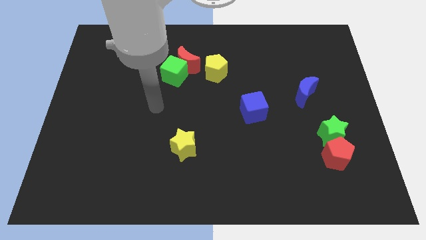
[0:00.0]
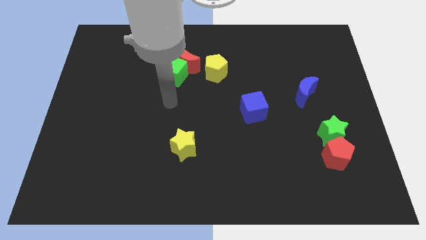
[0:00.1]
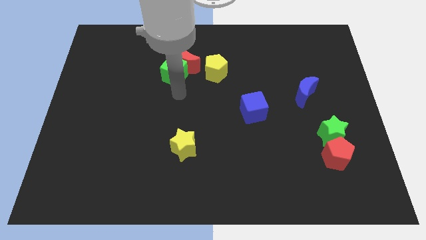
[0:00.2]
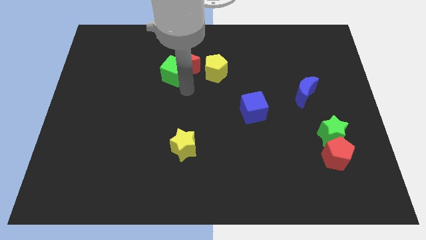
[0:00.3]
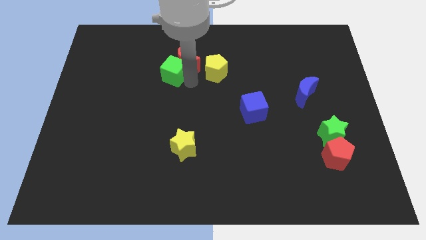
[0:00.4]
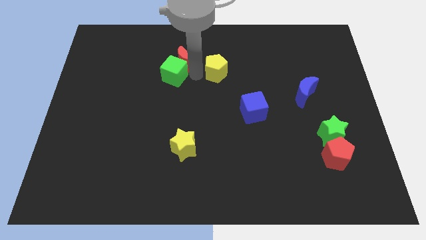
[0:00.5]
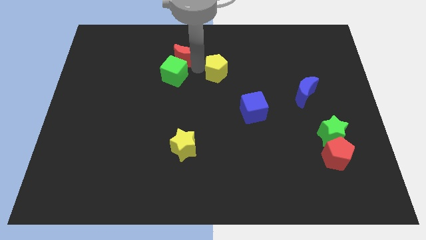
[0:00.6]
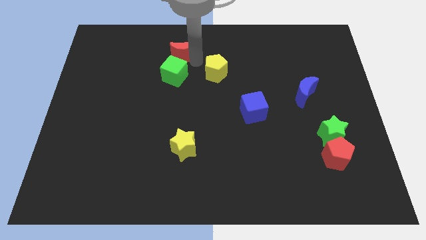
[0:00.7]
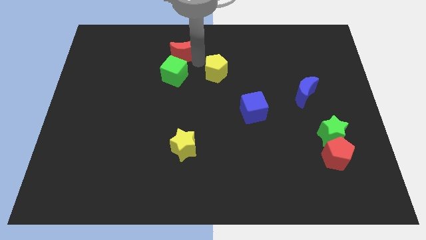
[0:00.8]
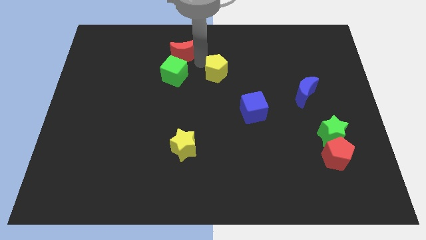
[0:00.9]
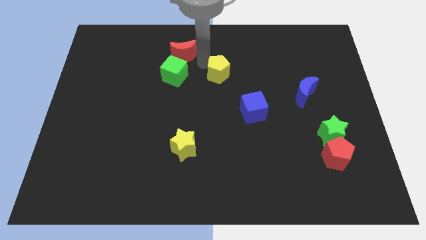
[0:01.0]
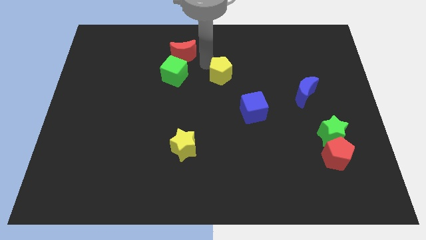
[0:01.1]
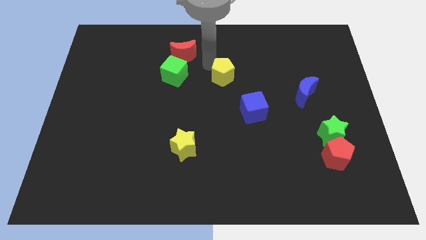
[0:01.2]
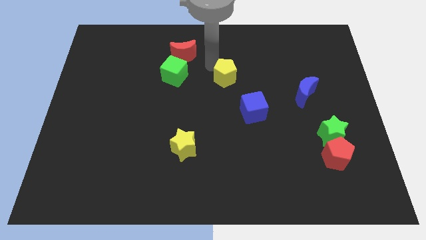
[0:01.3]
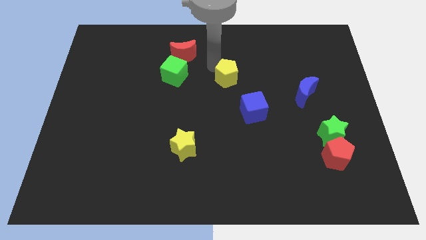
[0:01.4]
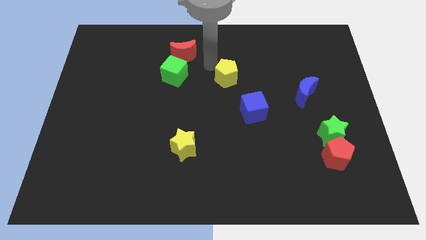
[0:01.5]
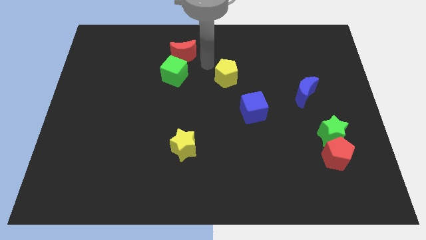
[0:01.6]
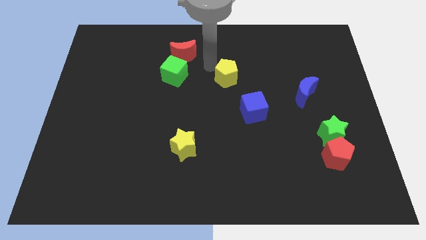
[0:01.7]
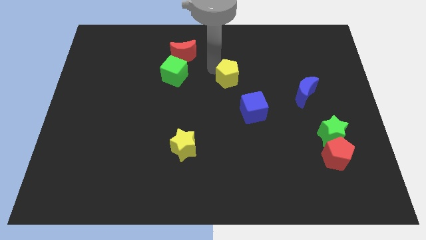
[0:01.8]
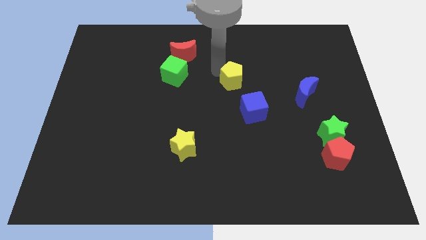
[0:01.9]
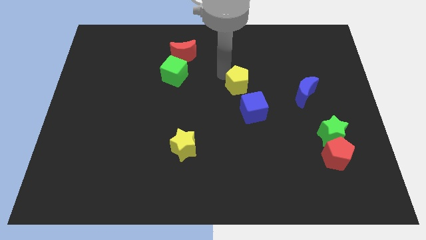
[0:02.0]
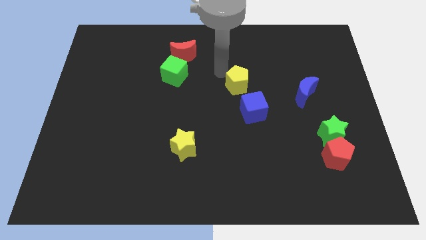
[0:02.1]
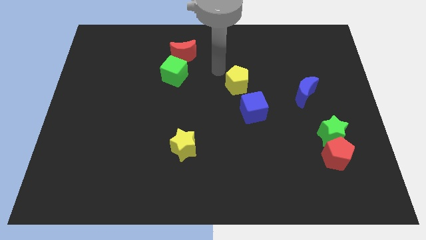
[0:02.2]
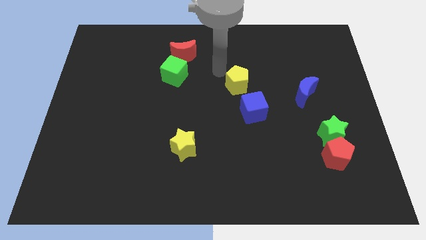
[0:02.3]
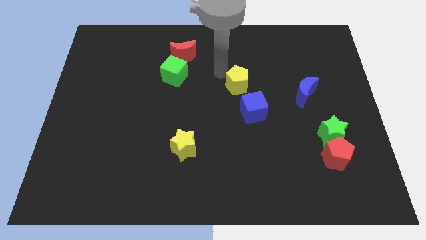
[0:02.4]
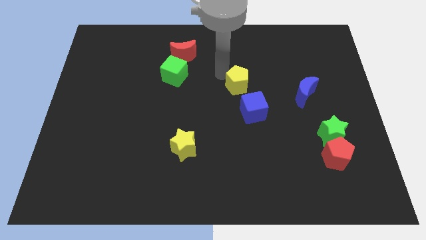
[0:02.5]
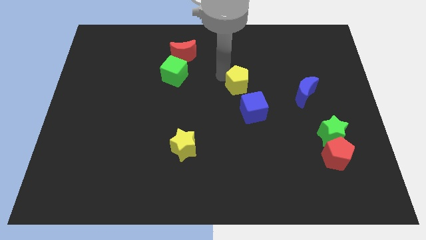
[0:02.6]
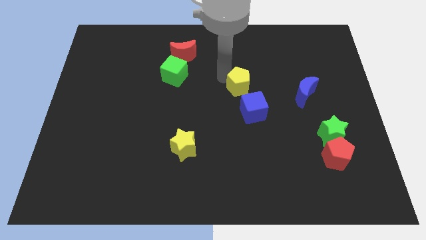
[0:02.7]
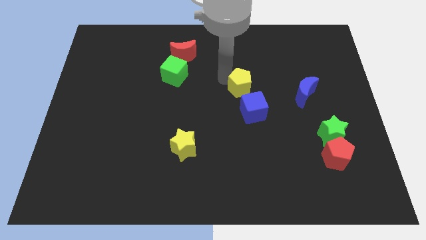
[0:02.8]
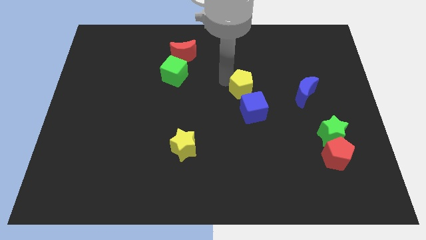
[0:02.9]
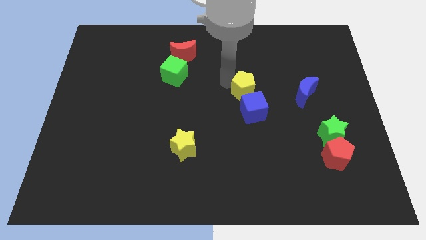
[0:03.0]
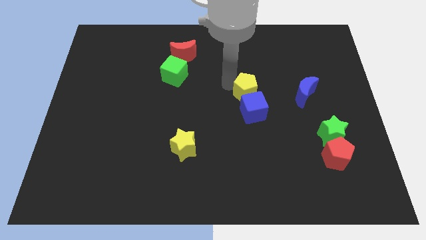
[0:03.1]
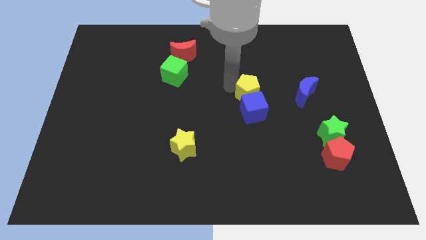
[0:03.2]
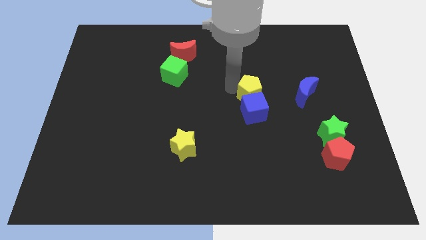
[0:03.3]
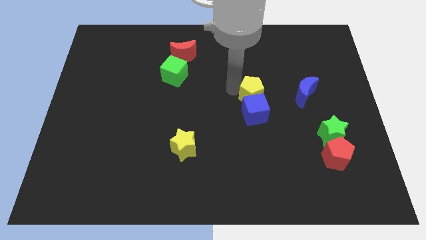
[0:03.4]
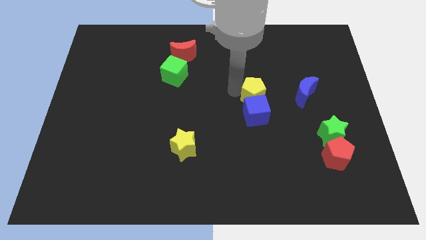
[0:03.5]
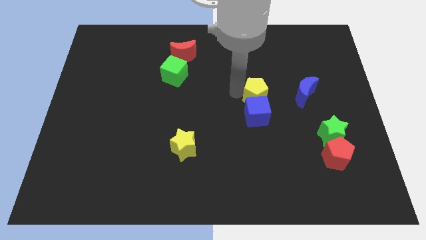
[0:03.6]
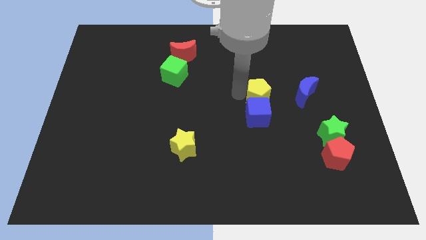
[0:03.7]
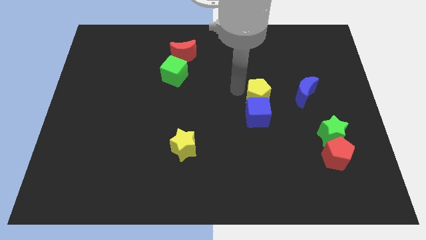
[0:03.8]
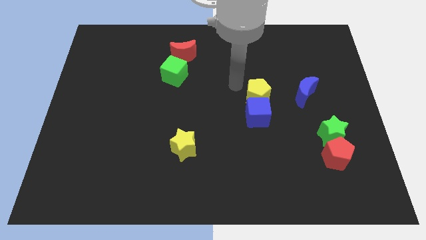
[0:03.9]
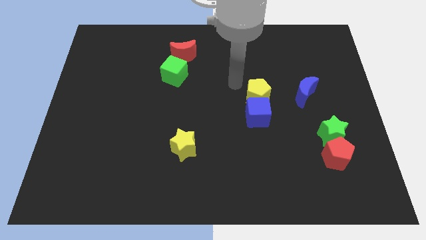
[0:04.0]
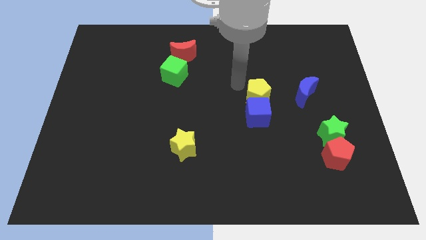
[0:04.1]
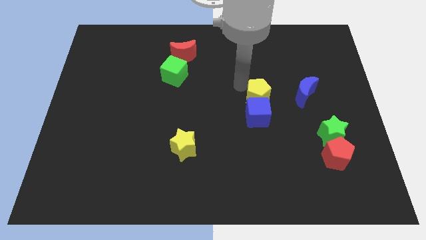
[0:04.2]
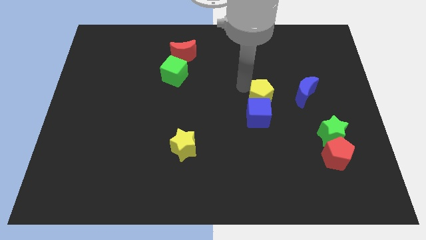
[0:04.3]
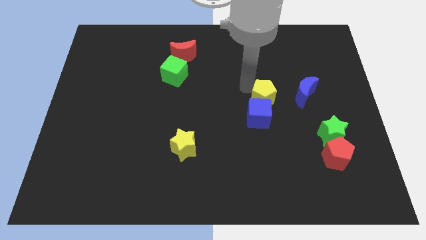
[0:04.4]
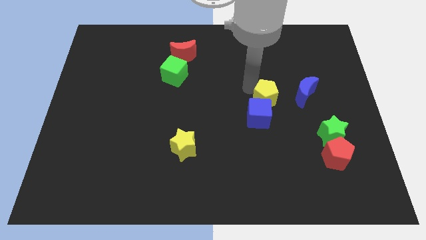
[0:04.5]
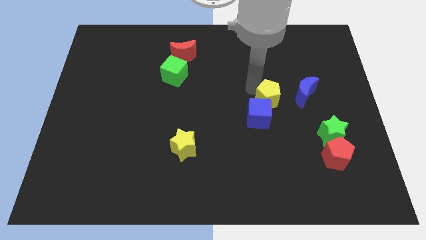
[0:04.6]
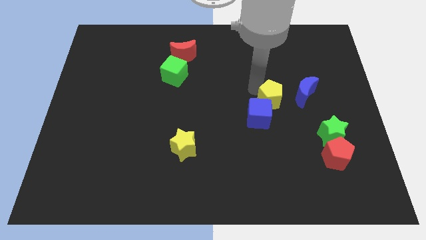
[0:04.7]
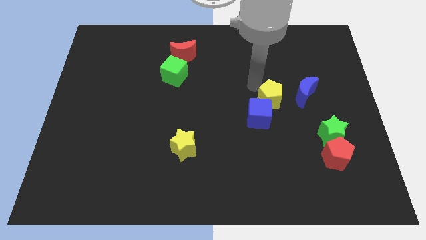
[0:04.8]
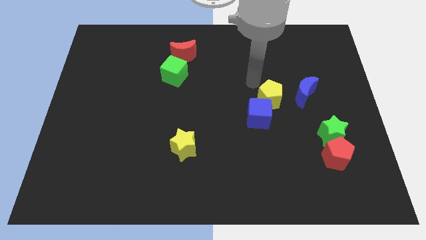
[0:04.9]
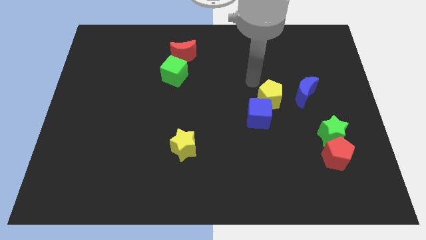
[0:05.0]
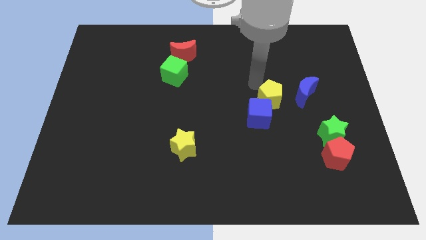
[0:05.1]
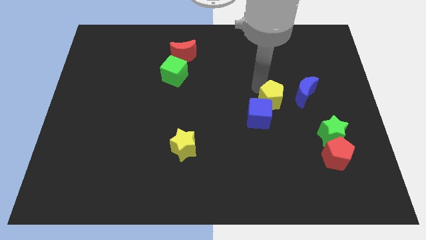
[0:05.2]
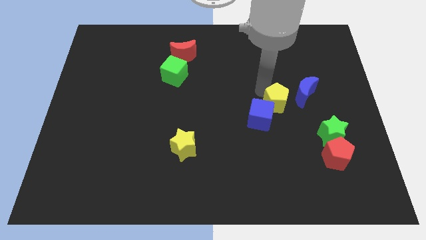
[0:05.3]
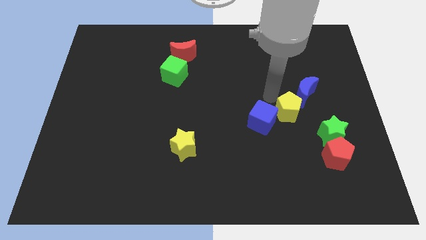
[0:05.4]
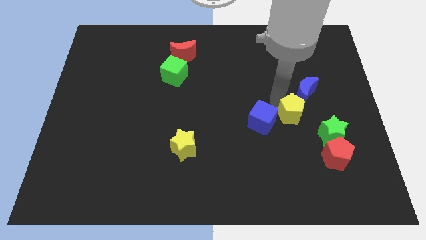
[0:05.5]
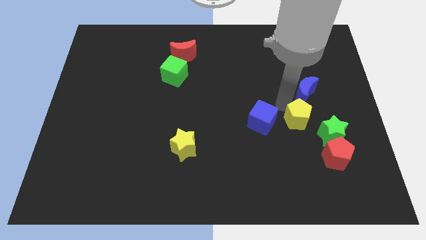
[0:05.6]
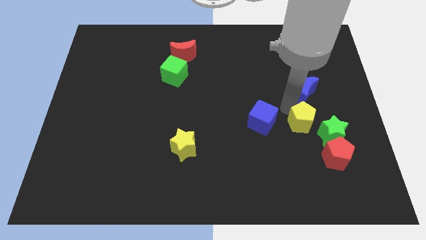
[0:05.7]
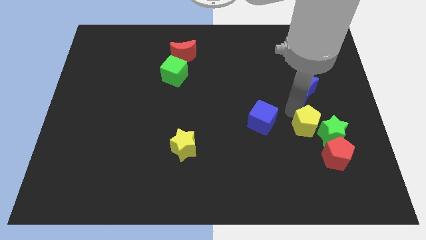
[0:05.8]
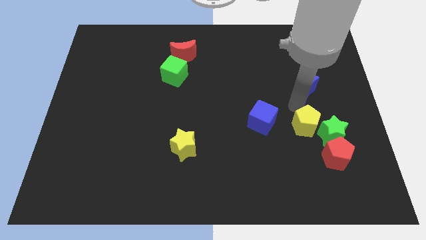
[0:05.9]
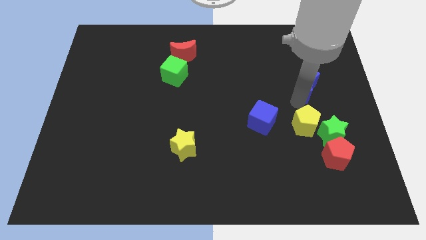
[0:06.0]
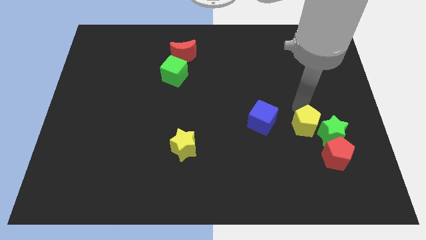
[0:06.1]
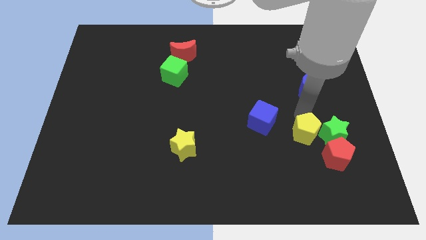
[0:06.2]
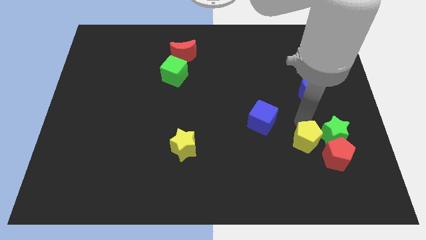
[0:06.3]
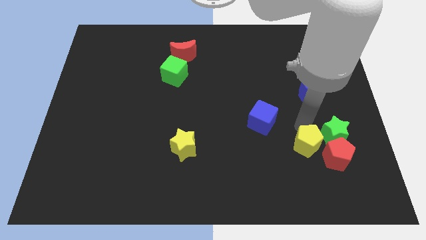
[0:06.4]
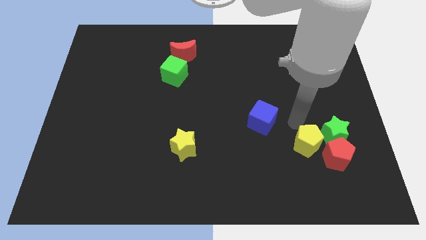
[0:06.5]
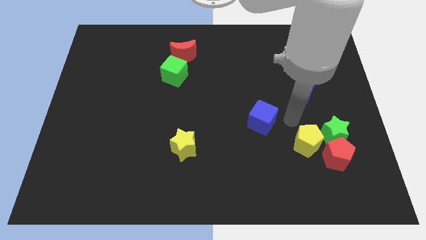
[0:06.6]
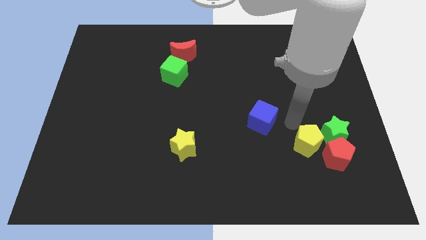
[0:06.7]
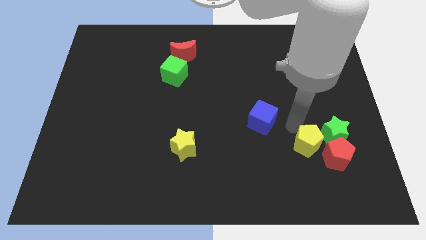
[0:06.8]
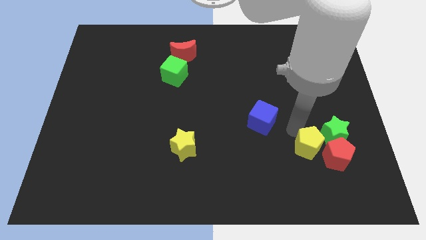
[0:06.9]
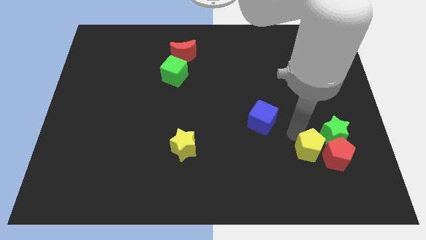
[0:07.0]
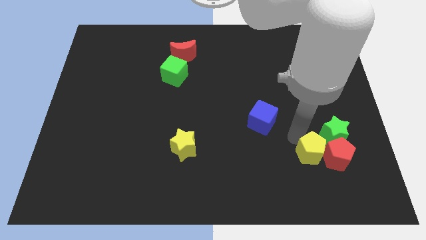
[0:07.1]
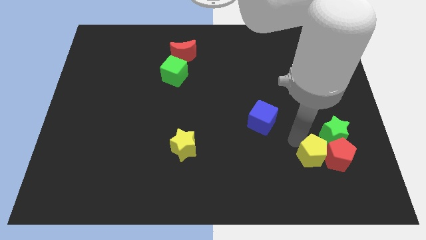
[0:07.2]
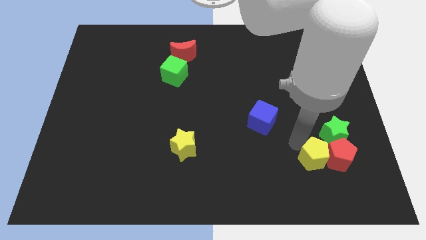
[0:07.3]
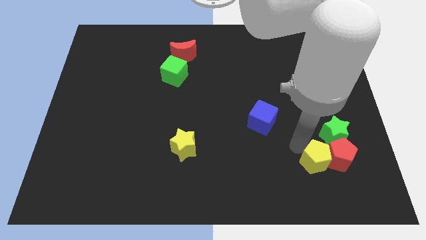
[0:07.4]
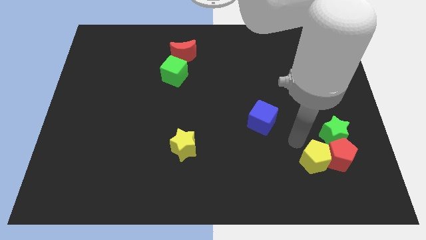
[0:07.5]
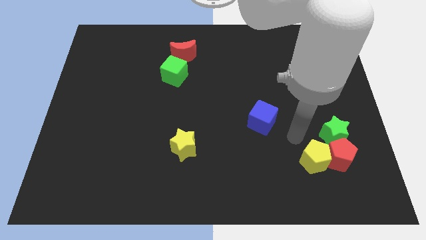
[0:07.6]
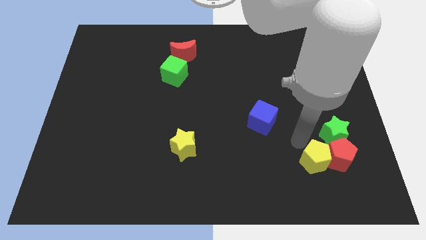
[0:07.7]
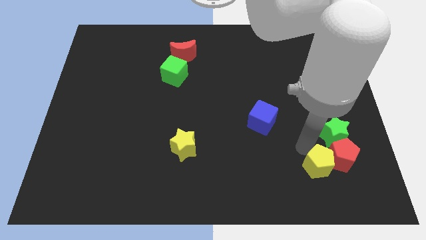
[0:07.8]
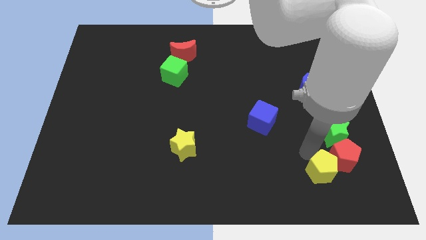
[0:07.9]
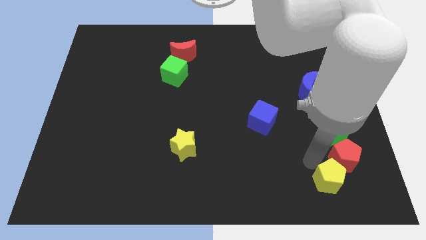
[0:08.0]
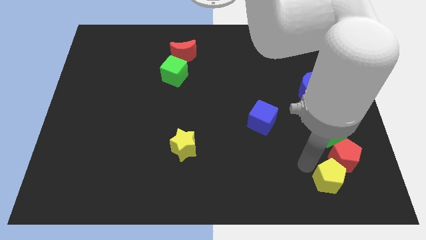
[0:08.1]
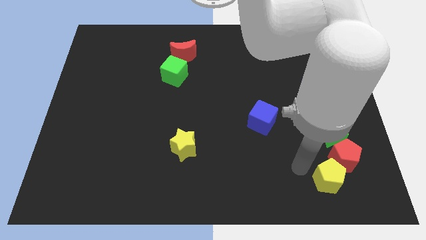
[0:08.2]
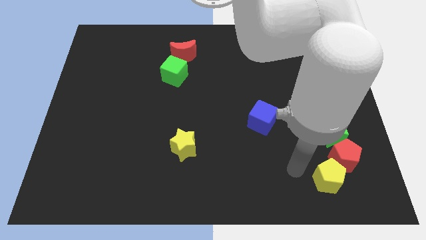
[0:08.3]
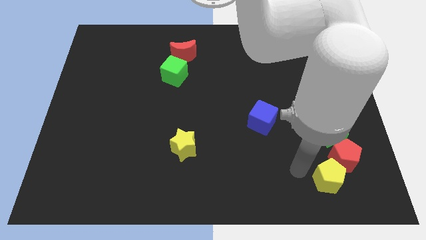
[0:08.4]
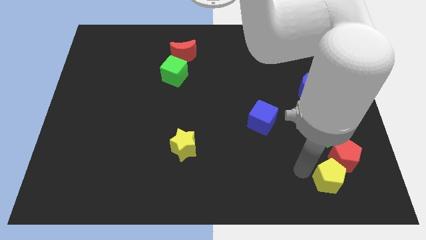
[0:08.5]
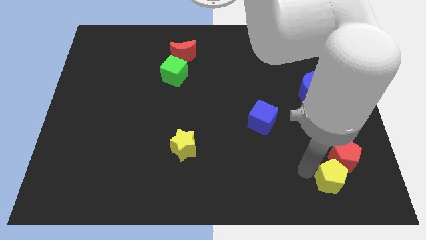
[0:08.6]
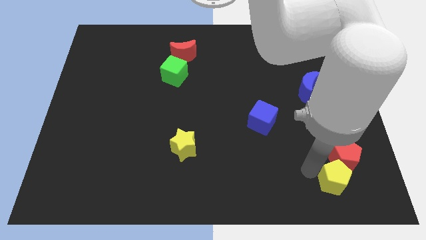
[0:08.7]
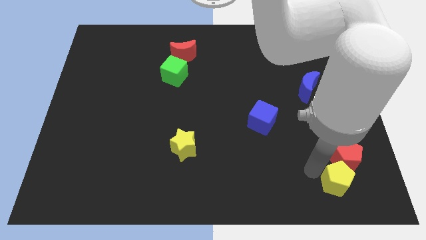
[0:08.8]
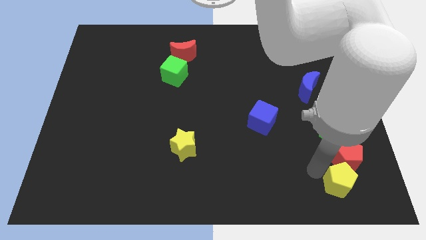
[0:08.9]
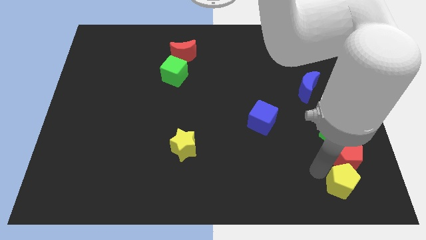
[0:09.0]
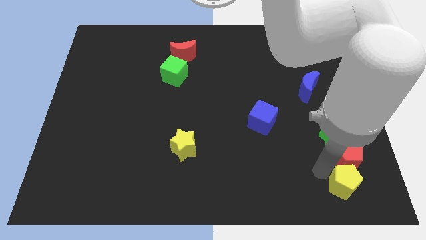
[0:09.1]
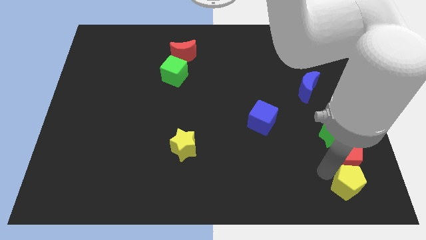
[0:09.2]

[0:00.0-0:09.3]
put the yellow pentagon to the bottom right
